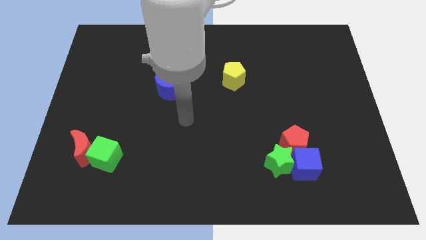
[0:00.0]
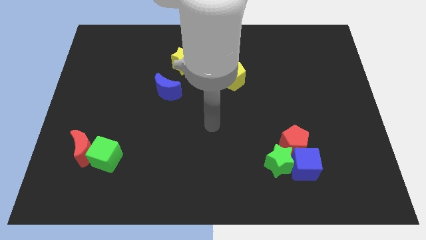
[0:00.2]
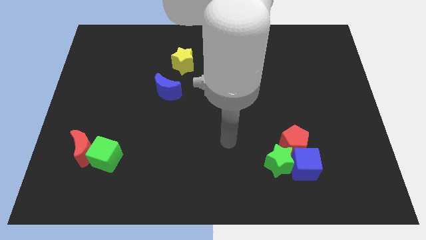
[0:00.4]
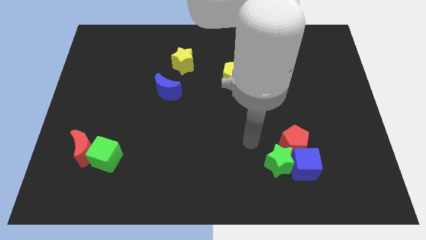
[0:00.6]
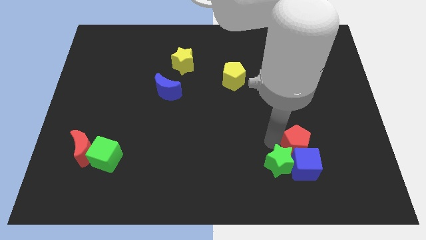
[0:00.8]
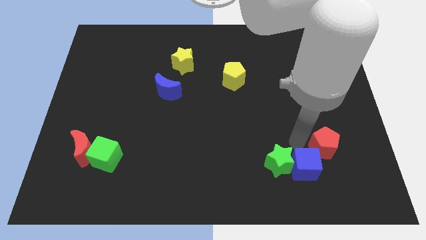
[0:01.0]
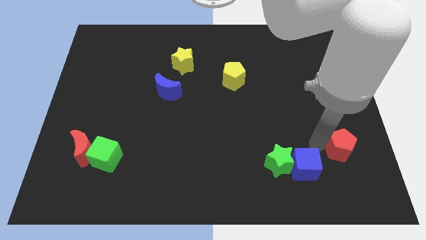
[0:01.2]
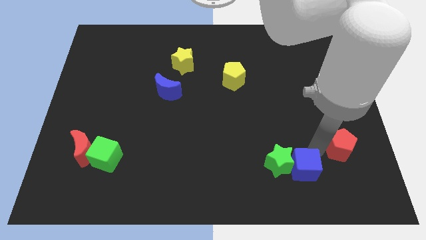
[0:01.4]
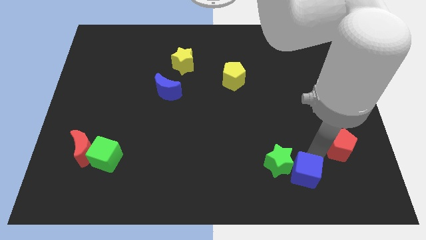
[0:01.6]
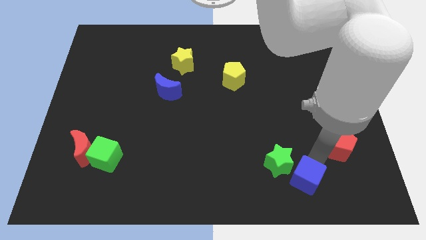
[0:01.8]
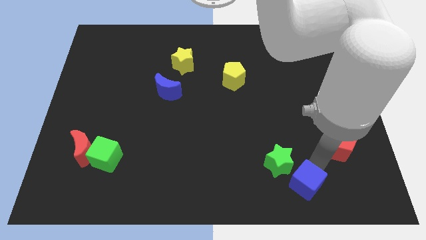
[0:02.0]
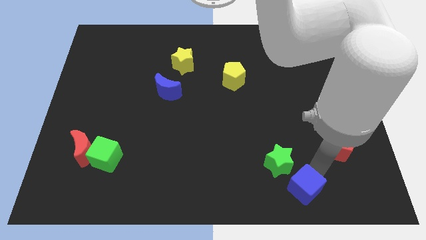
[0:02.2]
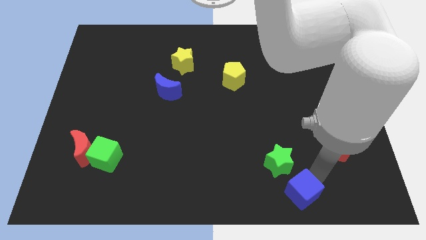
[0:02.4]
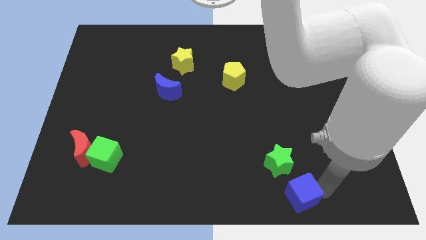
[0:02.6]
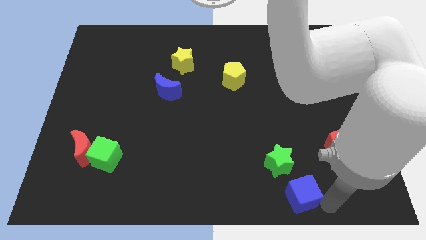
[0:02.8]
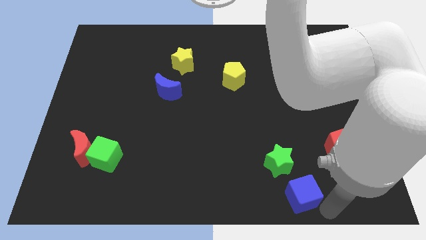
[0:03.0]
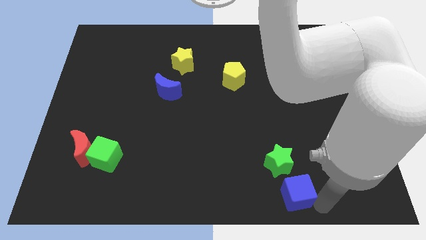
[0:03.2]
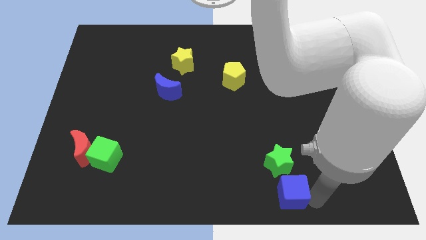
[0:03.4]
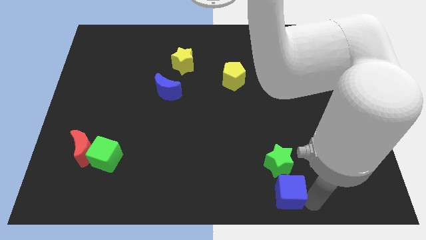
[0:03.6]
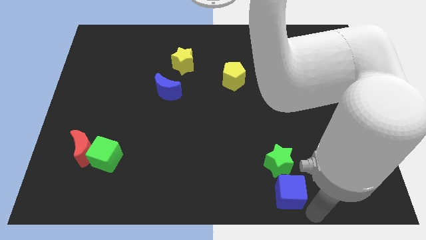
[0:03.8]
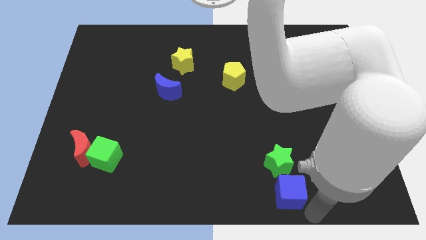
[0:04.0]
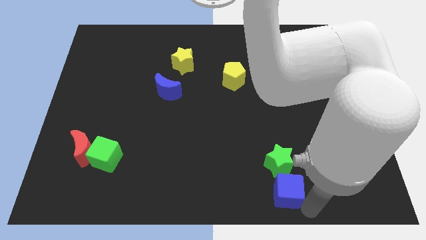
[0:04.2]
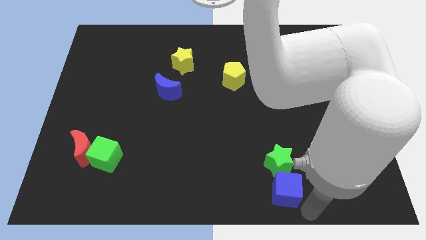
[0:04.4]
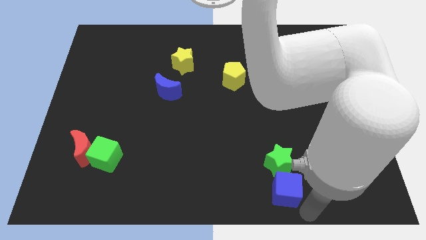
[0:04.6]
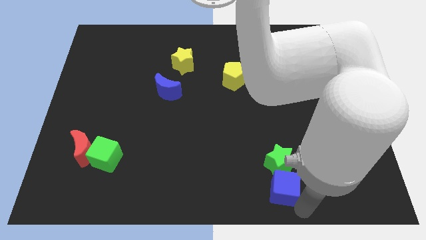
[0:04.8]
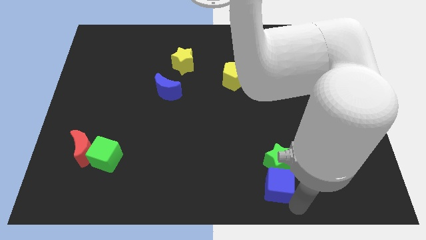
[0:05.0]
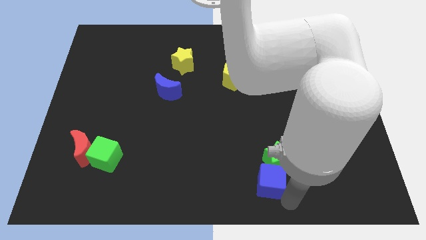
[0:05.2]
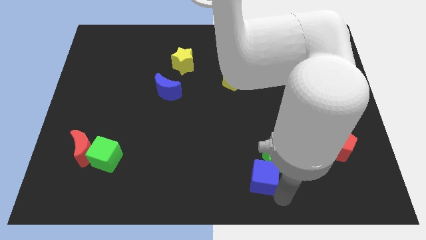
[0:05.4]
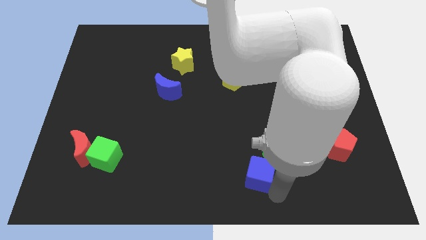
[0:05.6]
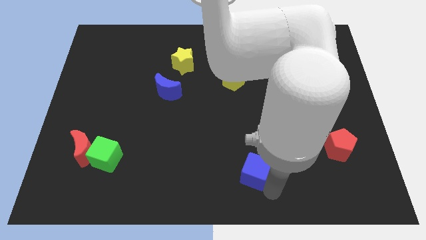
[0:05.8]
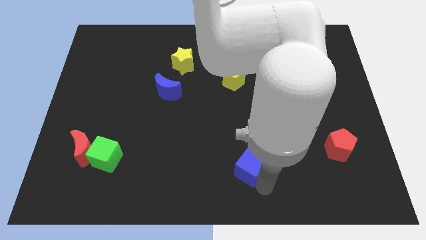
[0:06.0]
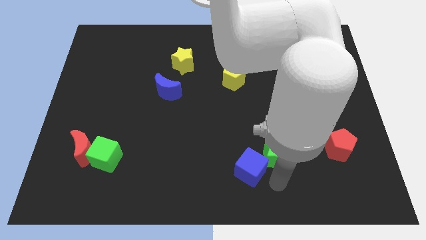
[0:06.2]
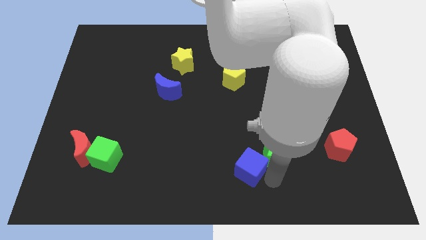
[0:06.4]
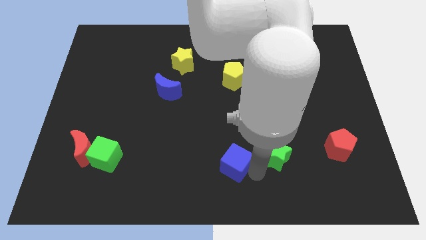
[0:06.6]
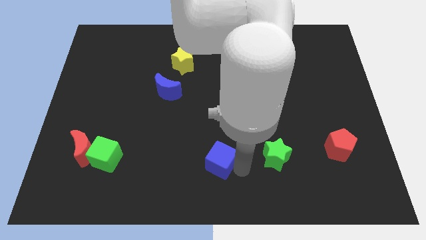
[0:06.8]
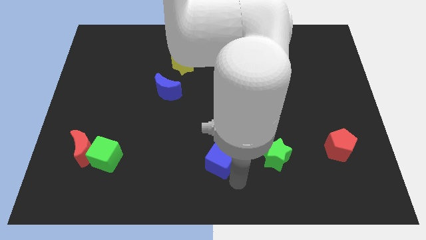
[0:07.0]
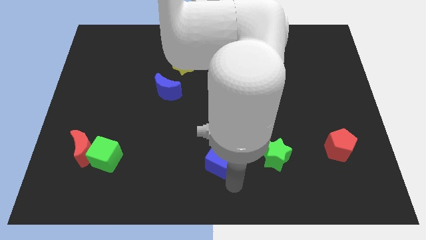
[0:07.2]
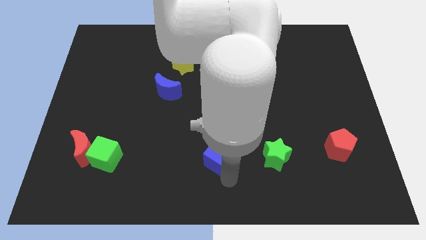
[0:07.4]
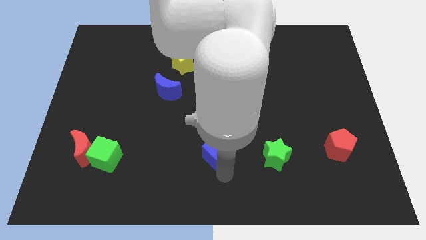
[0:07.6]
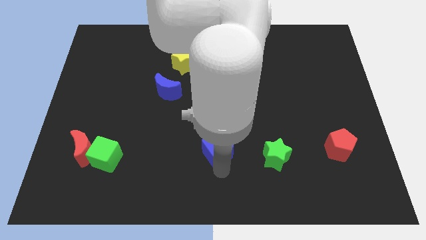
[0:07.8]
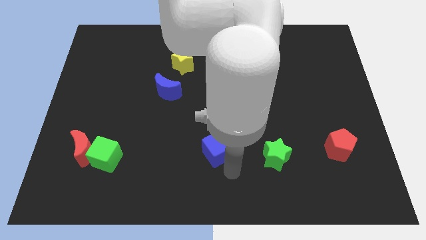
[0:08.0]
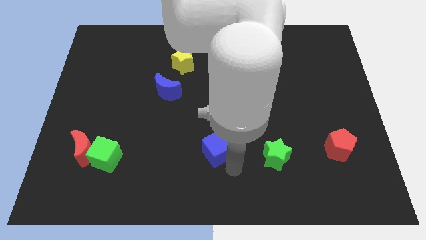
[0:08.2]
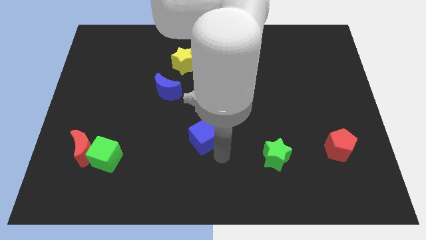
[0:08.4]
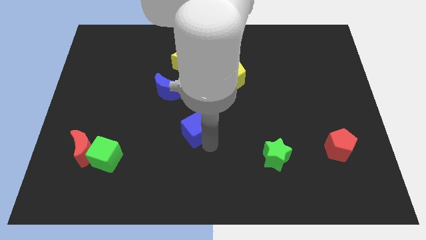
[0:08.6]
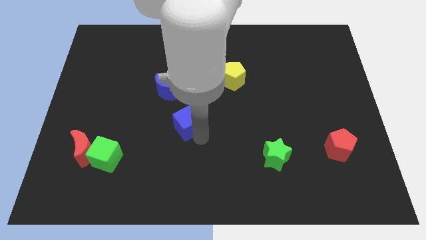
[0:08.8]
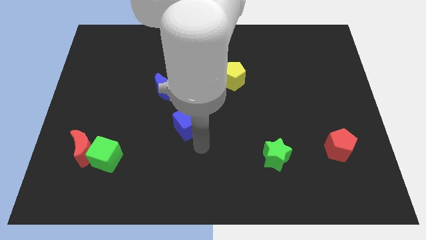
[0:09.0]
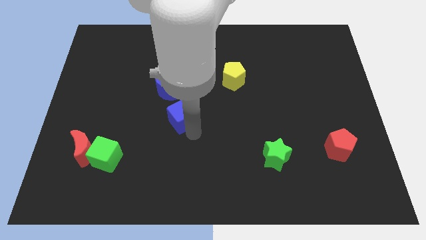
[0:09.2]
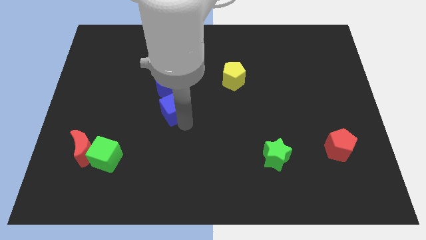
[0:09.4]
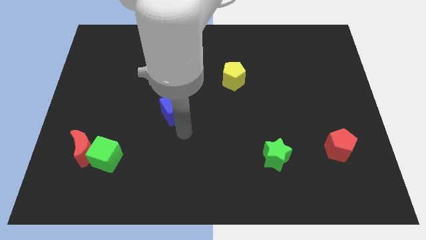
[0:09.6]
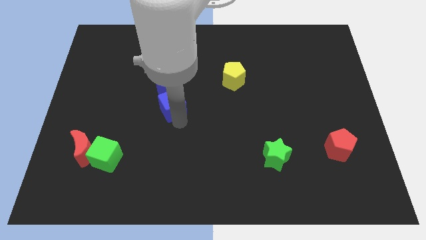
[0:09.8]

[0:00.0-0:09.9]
push the blue cube next to the blue moon

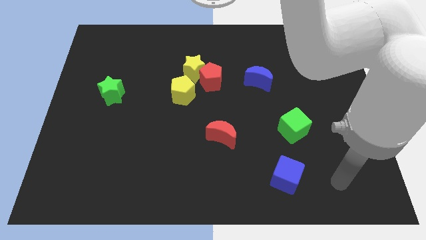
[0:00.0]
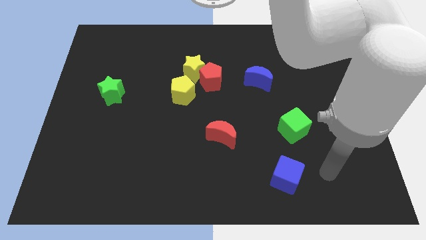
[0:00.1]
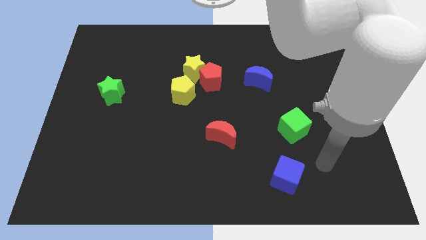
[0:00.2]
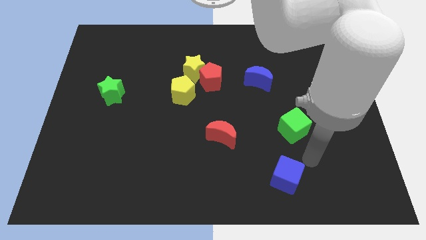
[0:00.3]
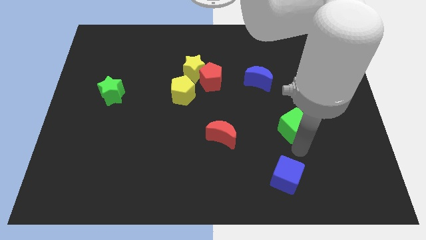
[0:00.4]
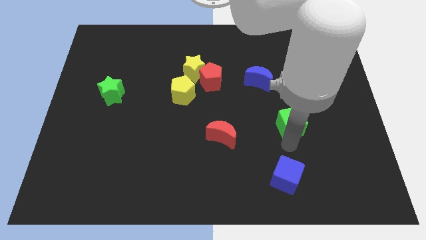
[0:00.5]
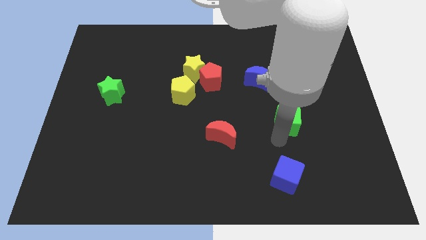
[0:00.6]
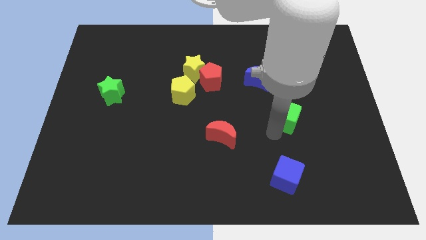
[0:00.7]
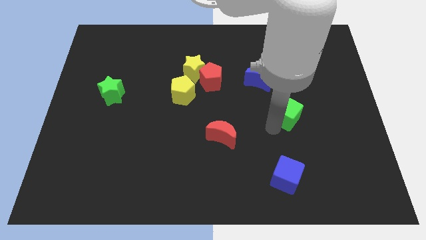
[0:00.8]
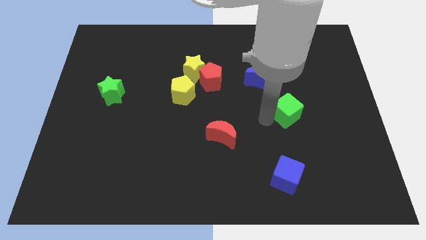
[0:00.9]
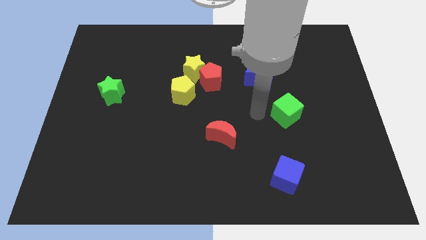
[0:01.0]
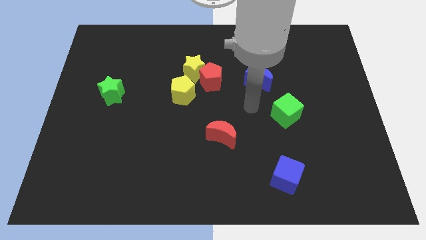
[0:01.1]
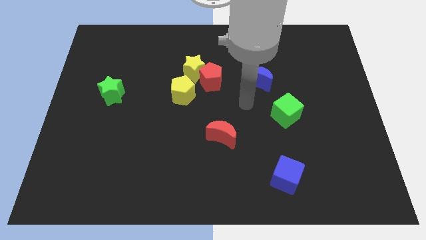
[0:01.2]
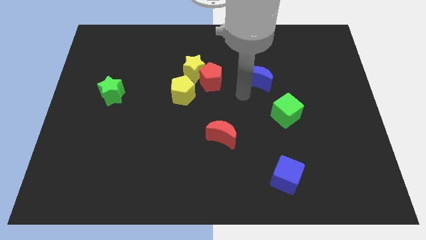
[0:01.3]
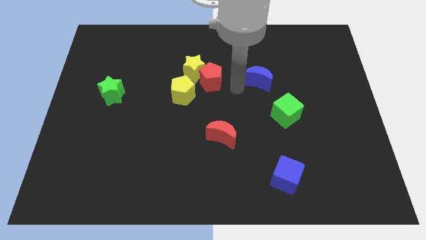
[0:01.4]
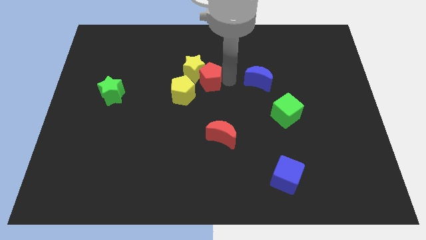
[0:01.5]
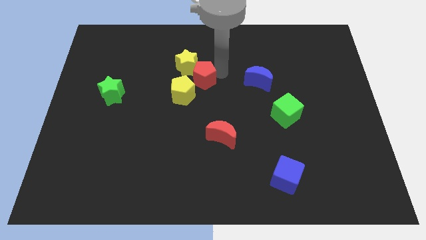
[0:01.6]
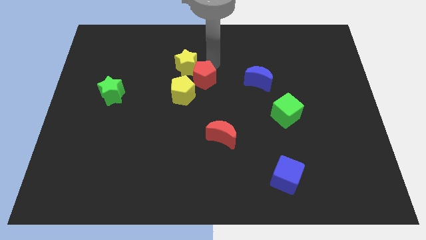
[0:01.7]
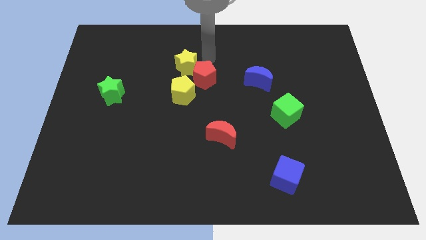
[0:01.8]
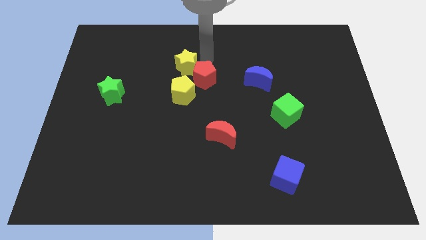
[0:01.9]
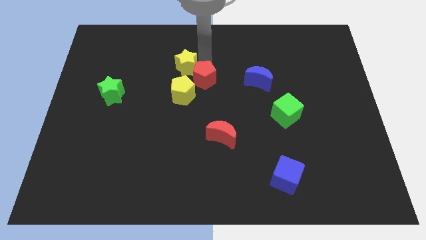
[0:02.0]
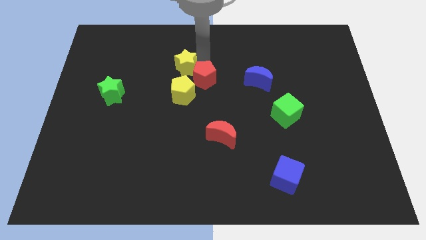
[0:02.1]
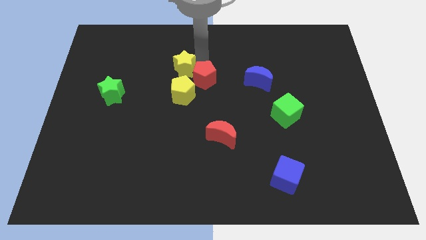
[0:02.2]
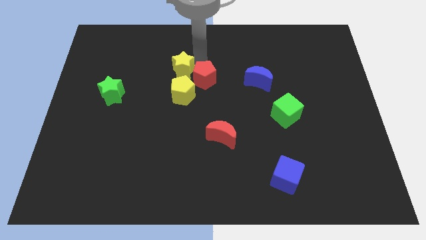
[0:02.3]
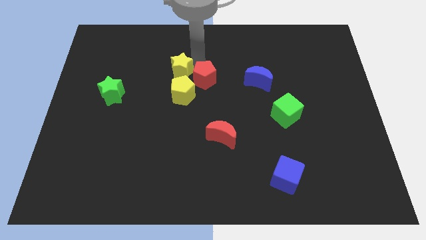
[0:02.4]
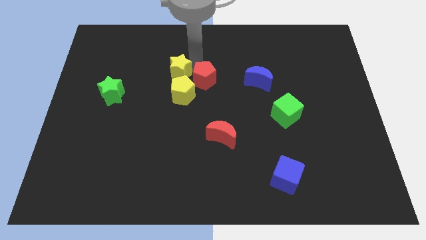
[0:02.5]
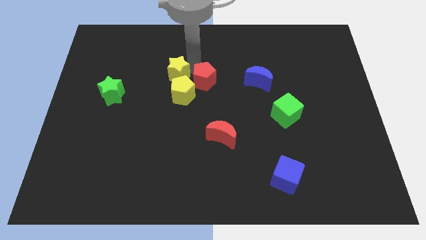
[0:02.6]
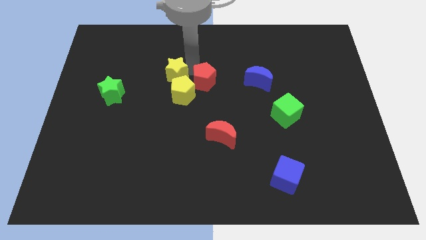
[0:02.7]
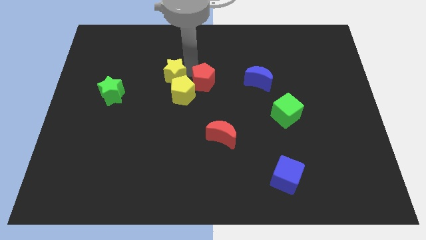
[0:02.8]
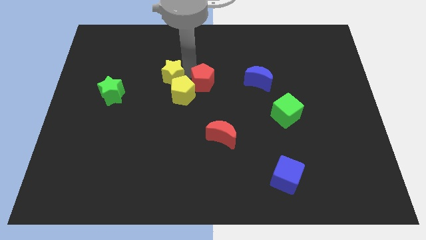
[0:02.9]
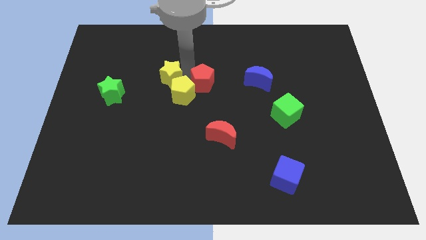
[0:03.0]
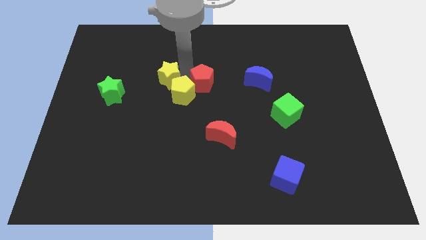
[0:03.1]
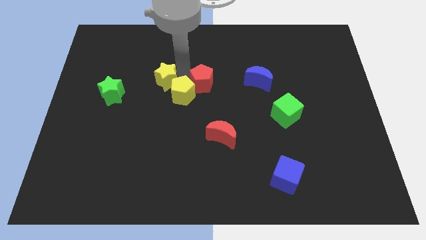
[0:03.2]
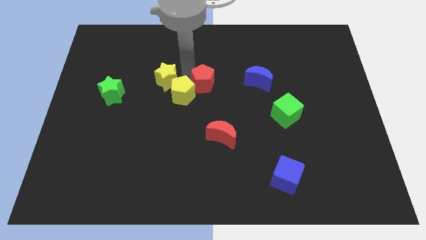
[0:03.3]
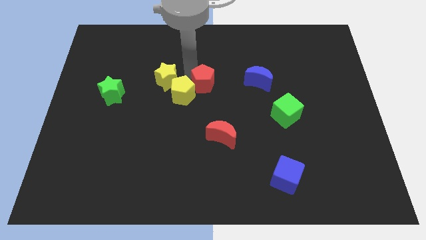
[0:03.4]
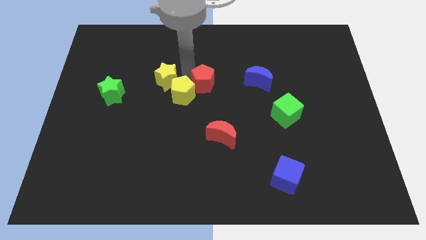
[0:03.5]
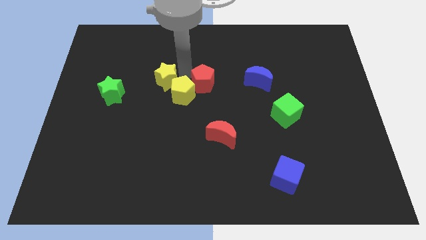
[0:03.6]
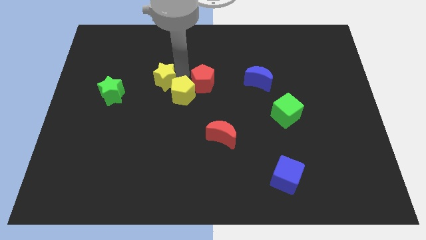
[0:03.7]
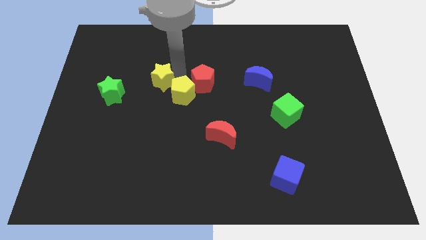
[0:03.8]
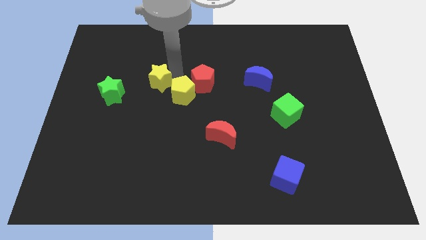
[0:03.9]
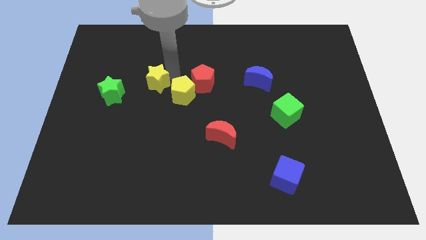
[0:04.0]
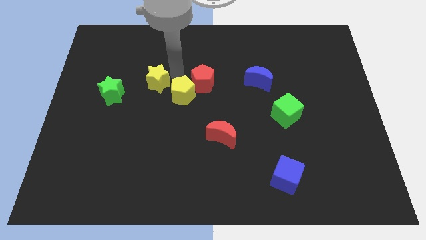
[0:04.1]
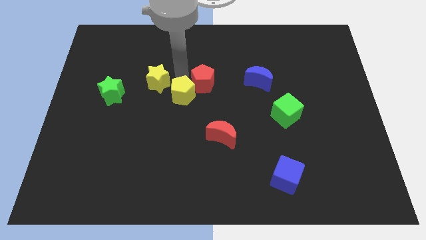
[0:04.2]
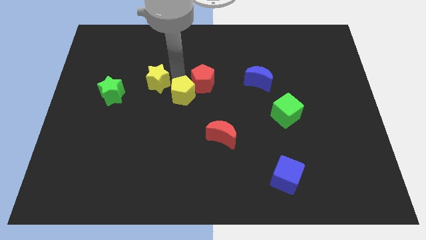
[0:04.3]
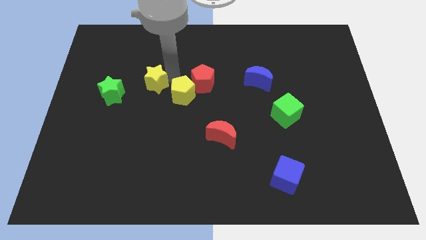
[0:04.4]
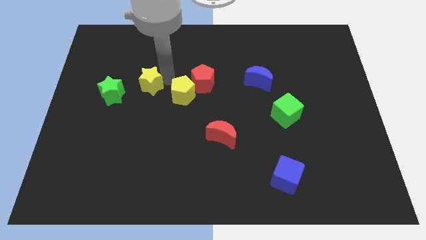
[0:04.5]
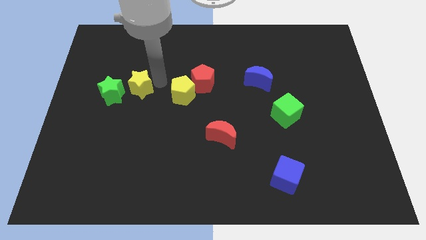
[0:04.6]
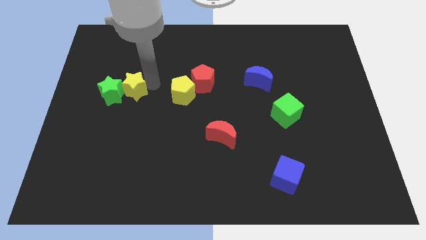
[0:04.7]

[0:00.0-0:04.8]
put the yellow star to the green star
